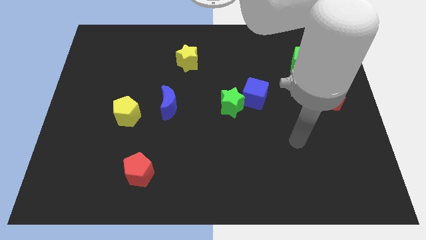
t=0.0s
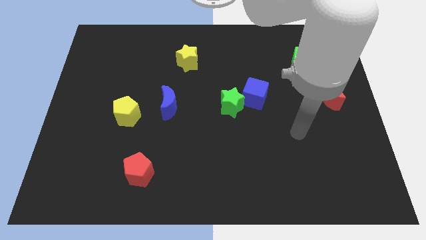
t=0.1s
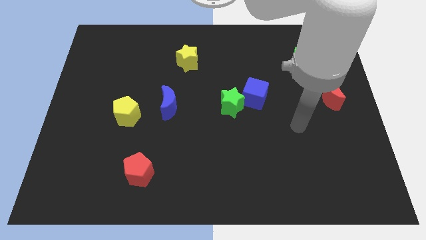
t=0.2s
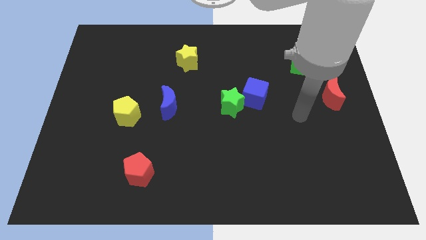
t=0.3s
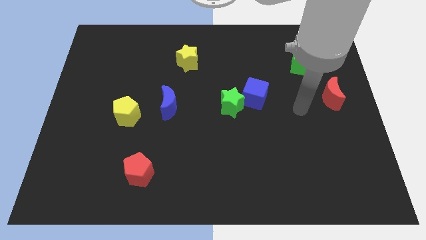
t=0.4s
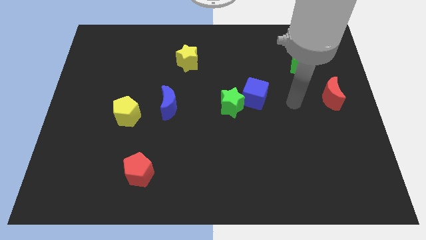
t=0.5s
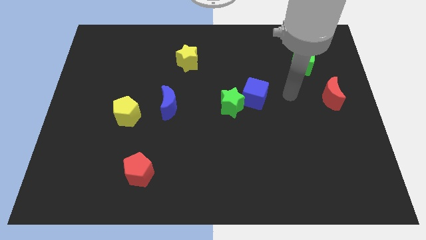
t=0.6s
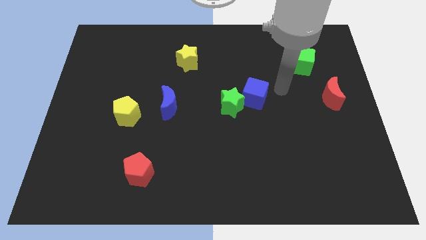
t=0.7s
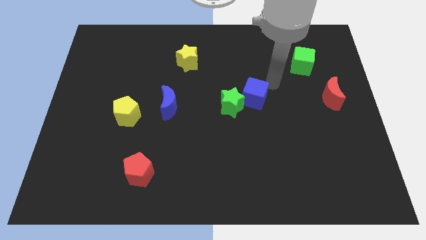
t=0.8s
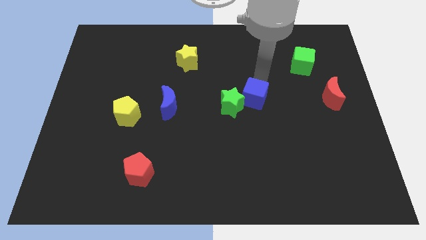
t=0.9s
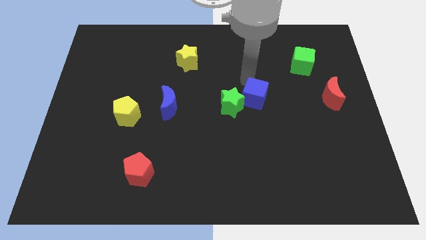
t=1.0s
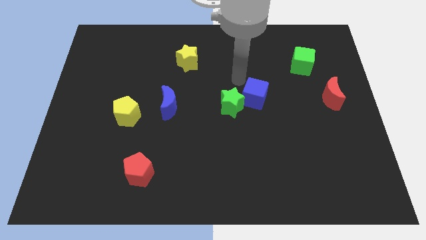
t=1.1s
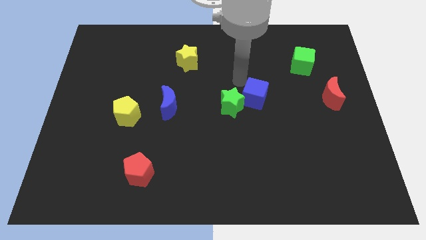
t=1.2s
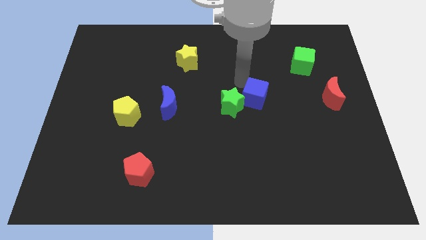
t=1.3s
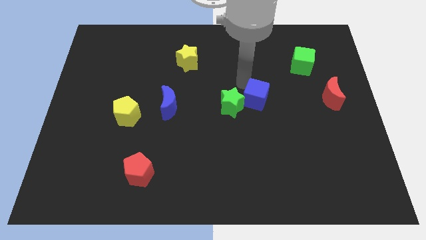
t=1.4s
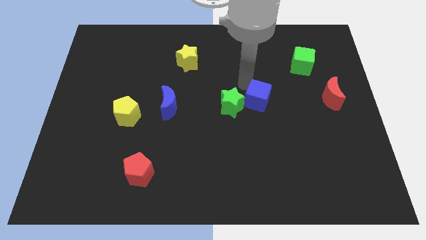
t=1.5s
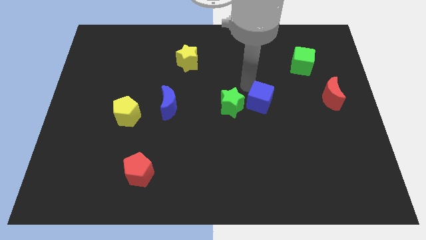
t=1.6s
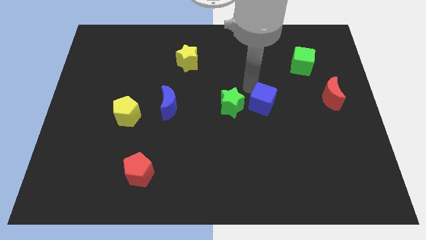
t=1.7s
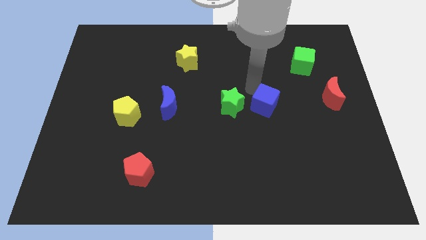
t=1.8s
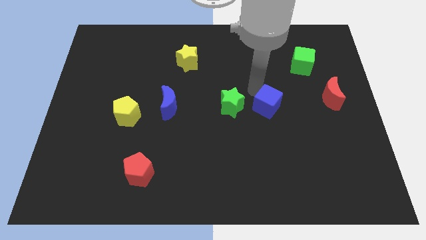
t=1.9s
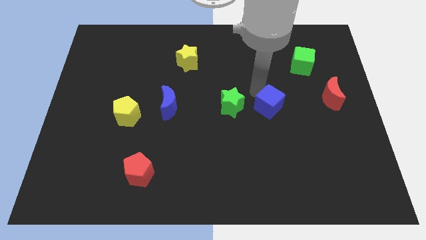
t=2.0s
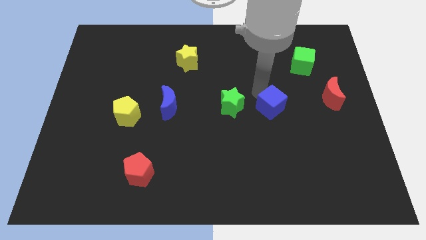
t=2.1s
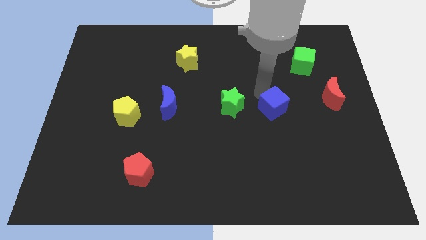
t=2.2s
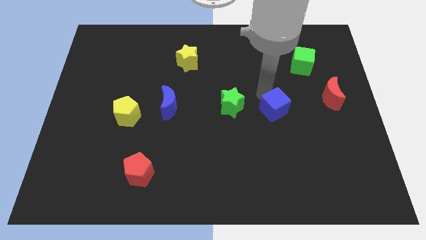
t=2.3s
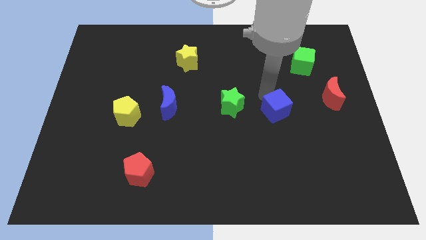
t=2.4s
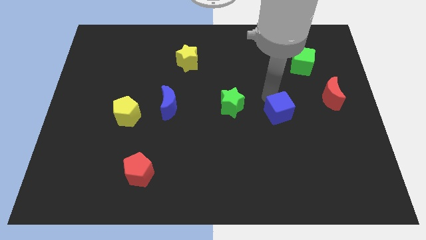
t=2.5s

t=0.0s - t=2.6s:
slide the blue cube somewhat diagonally downwards and right

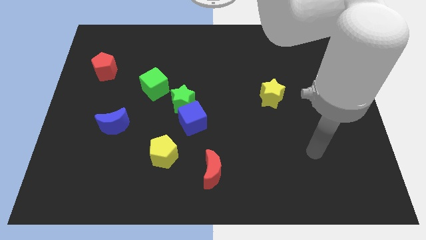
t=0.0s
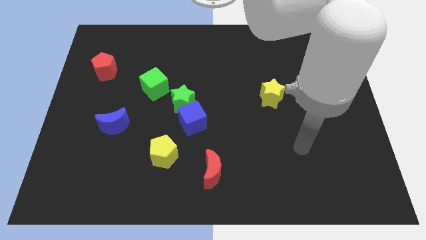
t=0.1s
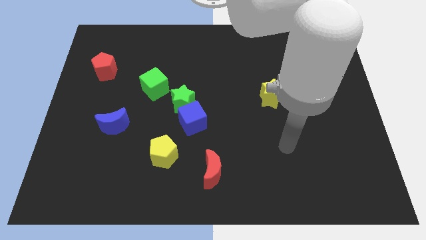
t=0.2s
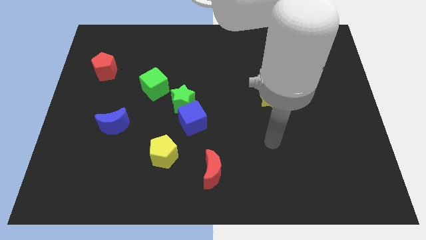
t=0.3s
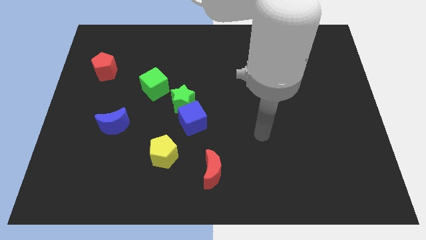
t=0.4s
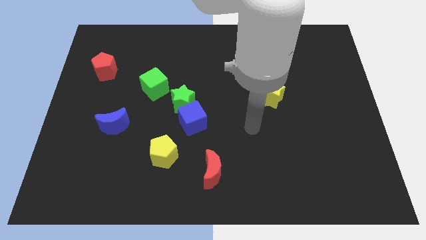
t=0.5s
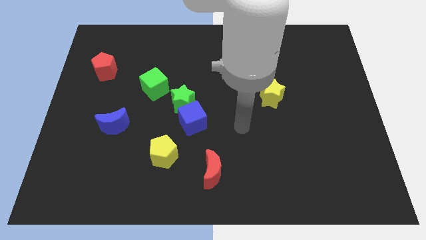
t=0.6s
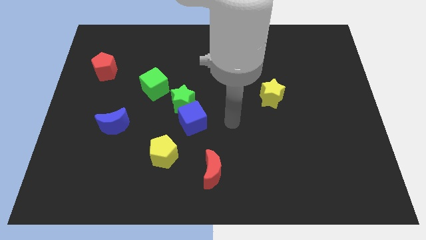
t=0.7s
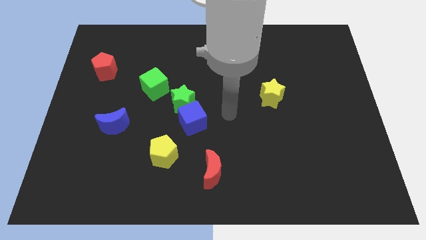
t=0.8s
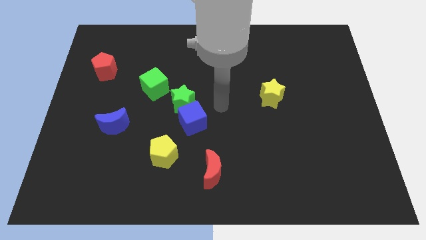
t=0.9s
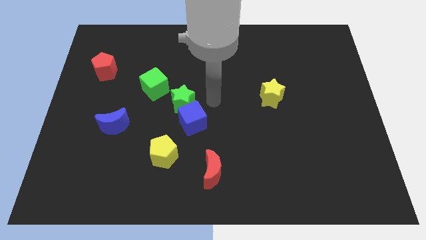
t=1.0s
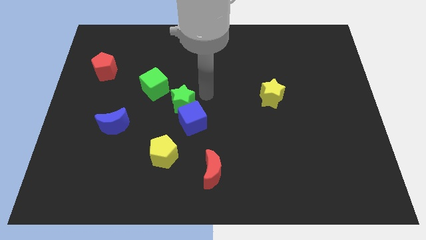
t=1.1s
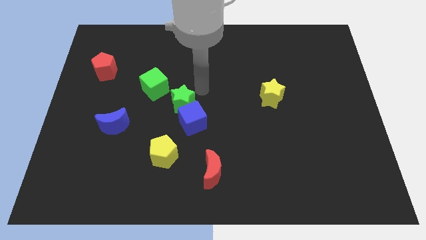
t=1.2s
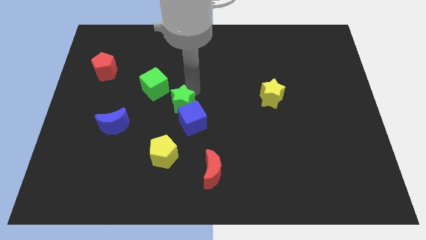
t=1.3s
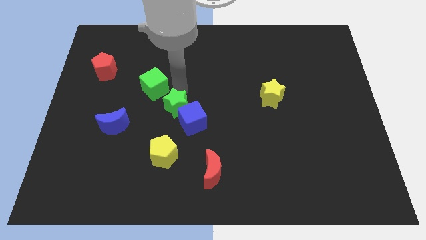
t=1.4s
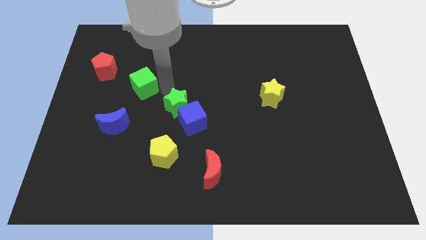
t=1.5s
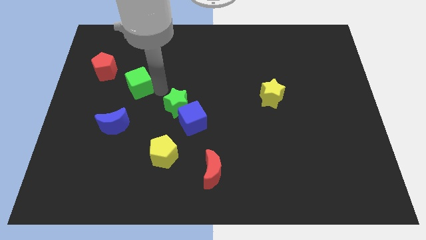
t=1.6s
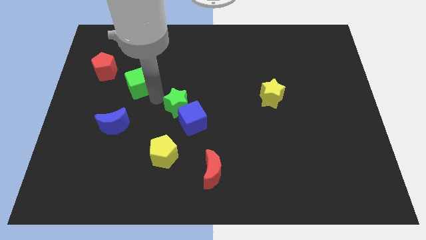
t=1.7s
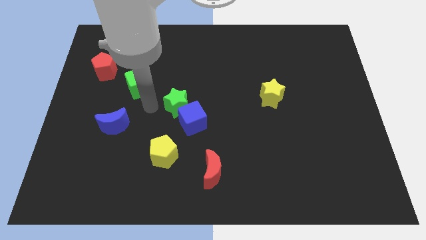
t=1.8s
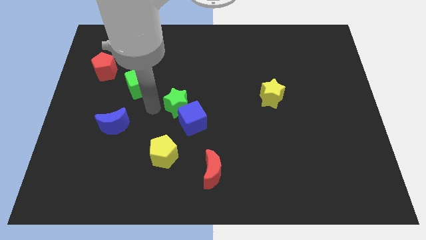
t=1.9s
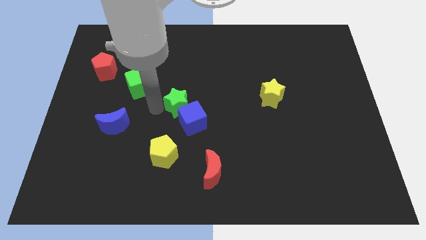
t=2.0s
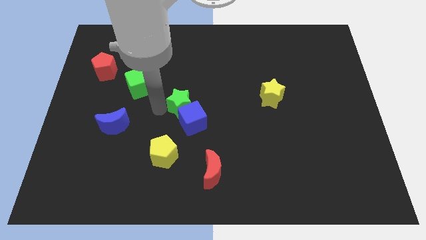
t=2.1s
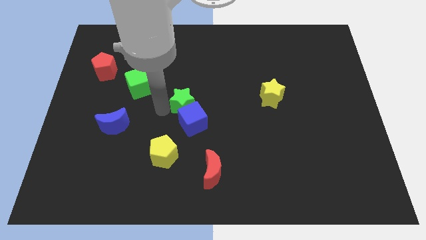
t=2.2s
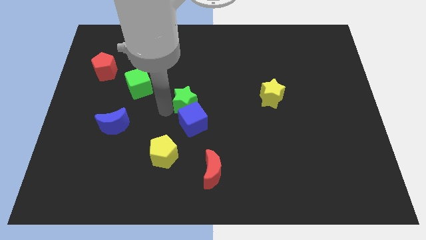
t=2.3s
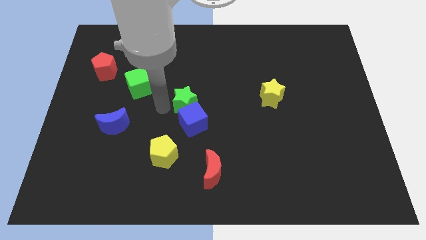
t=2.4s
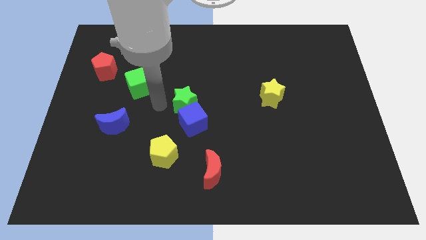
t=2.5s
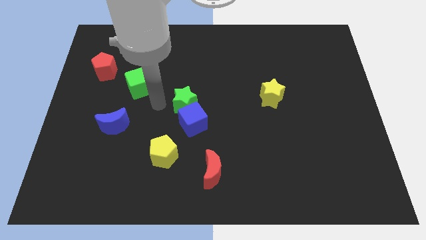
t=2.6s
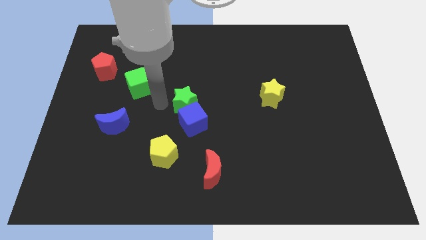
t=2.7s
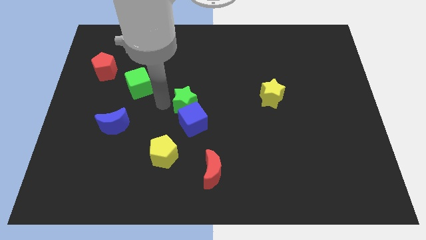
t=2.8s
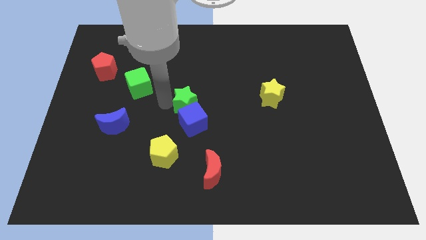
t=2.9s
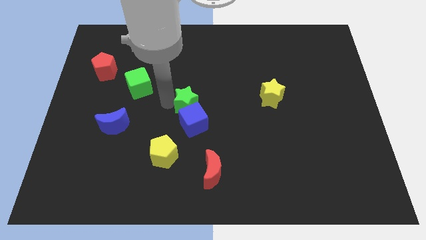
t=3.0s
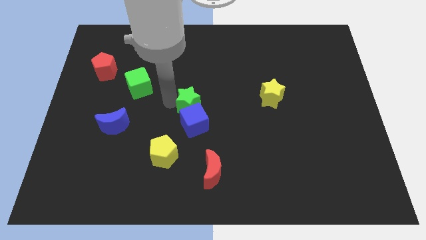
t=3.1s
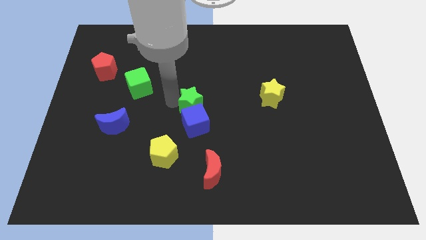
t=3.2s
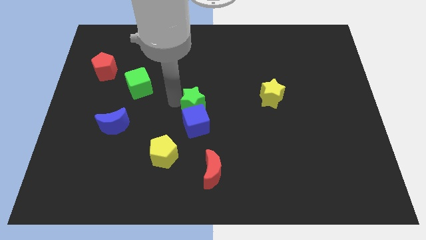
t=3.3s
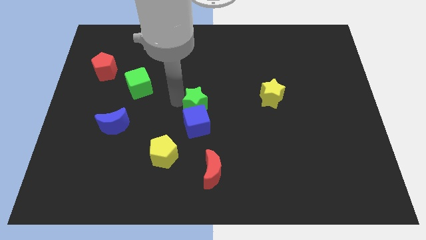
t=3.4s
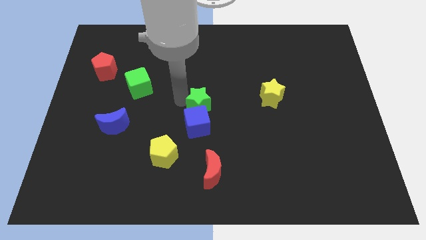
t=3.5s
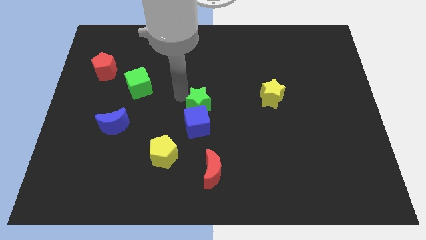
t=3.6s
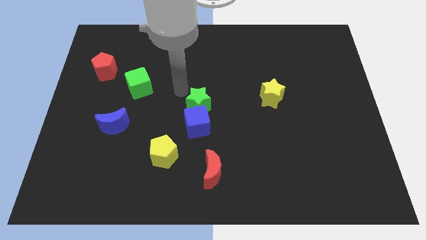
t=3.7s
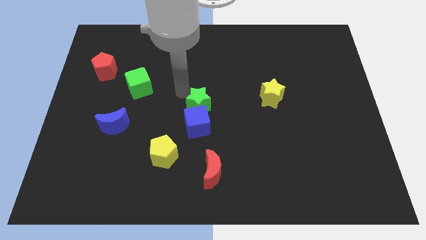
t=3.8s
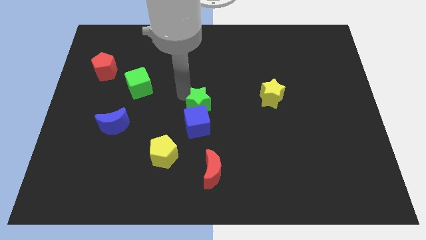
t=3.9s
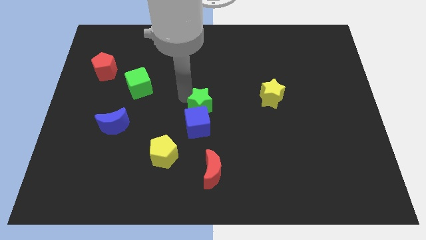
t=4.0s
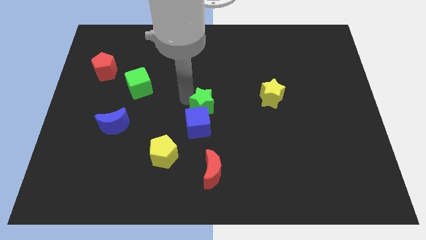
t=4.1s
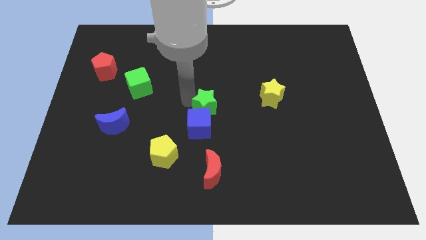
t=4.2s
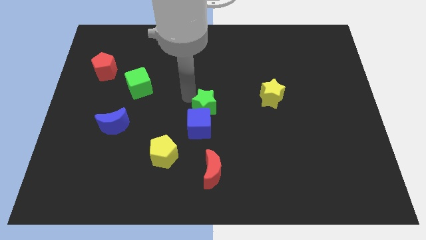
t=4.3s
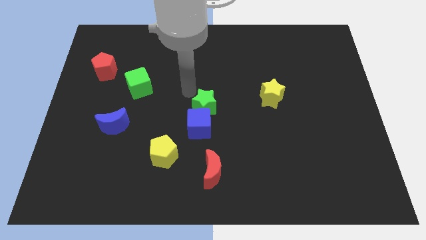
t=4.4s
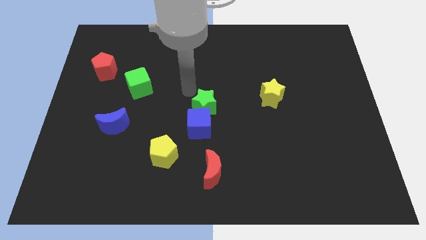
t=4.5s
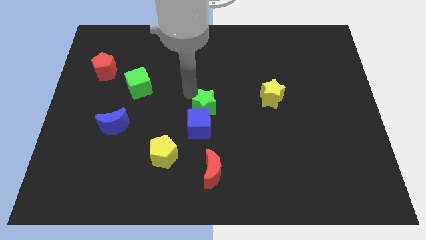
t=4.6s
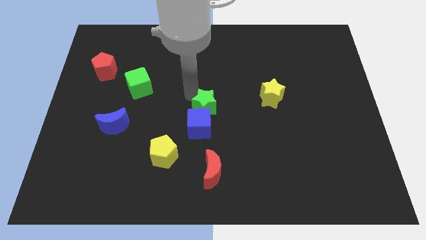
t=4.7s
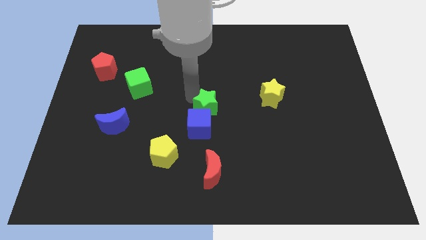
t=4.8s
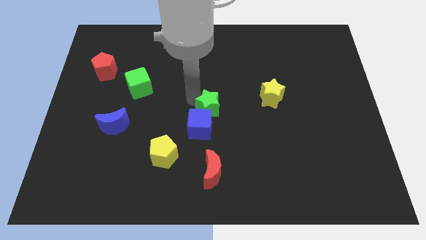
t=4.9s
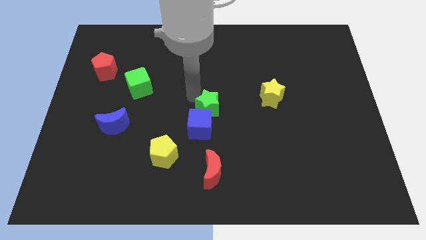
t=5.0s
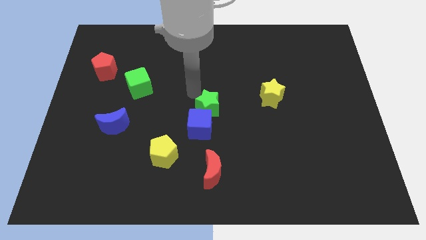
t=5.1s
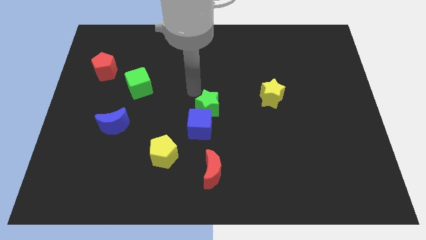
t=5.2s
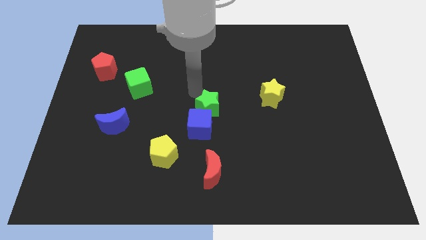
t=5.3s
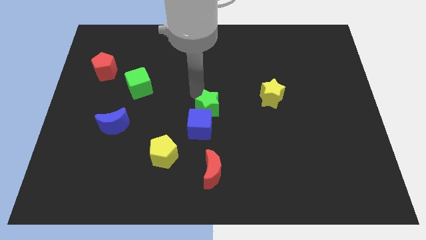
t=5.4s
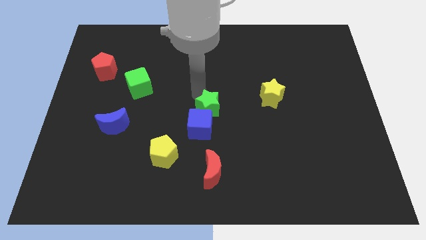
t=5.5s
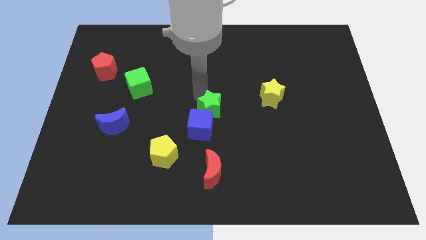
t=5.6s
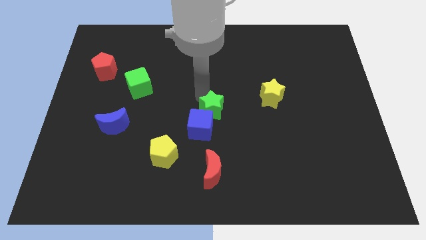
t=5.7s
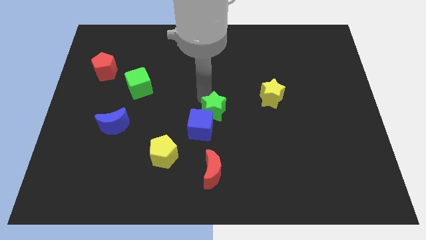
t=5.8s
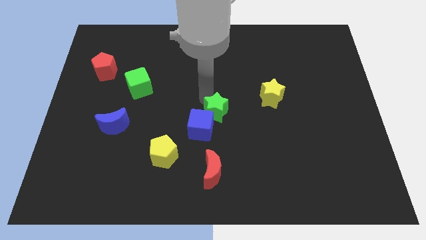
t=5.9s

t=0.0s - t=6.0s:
move the green star down and right diagonally a little
